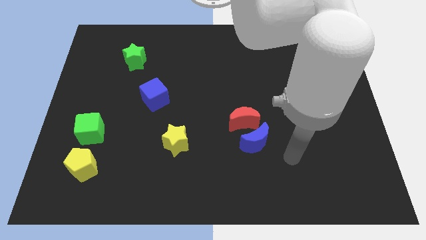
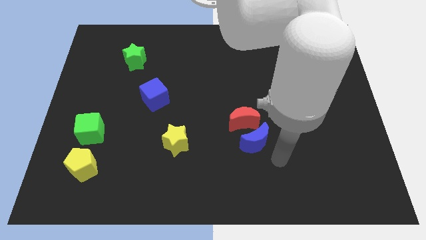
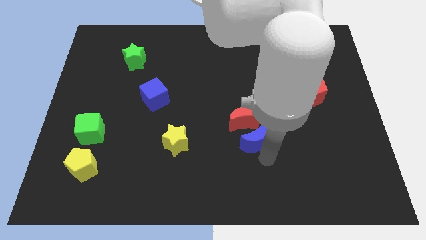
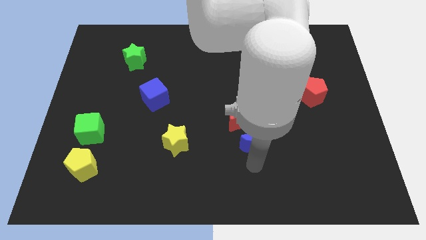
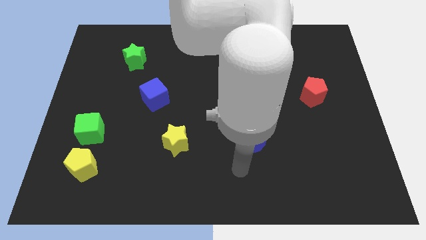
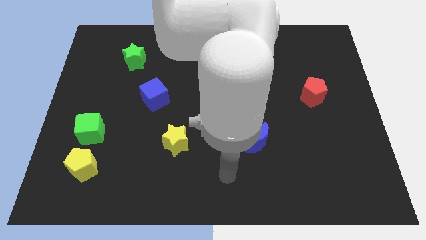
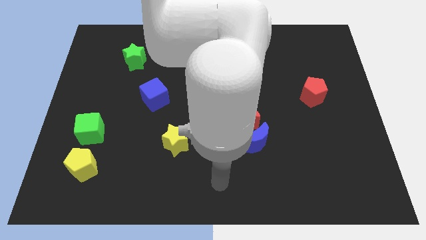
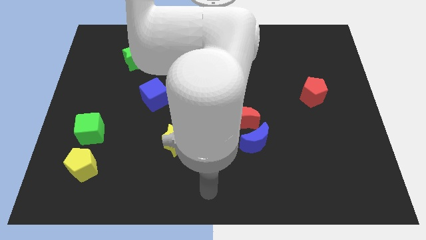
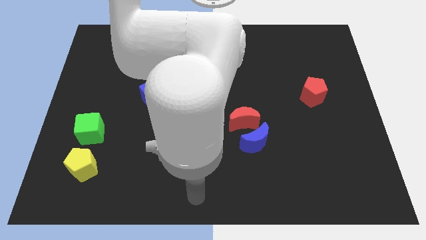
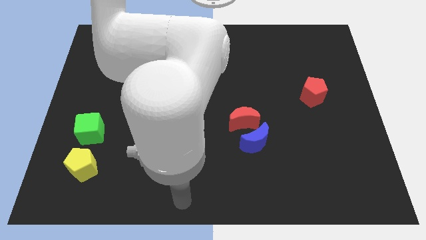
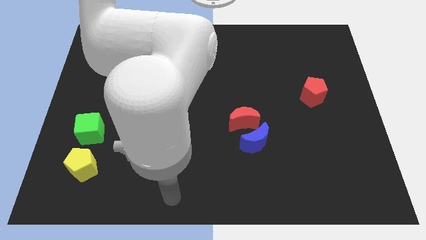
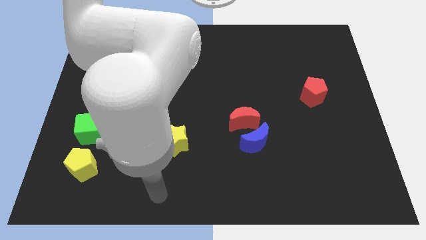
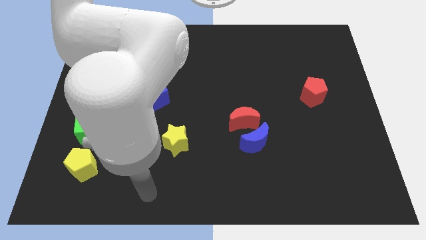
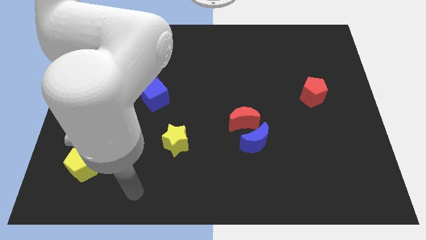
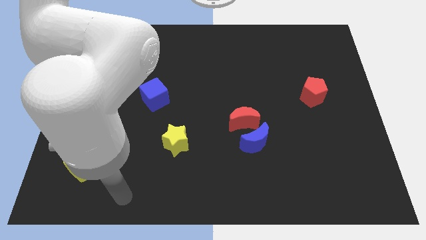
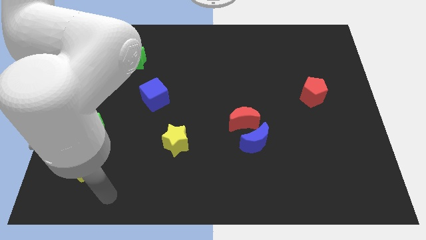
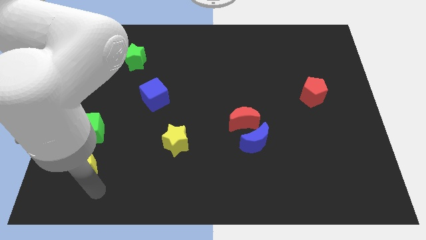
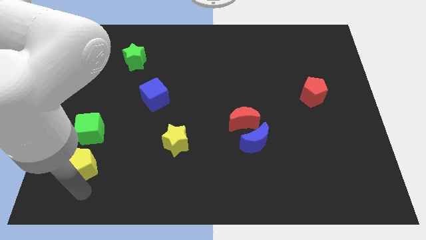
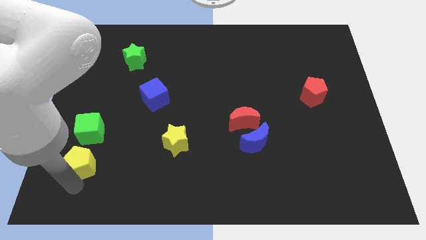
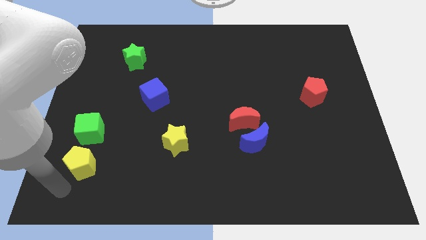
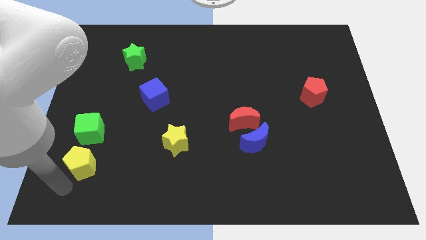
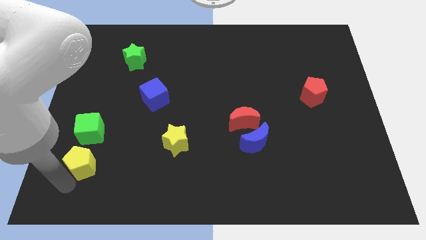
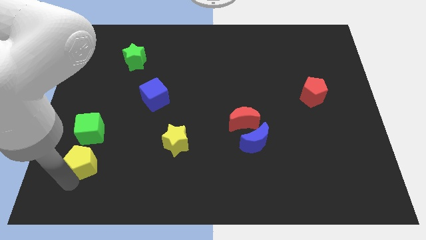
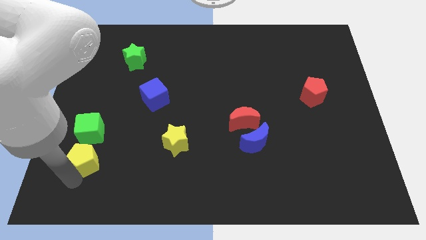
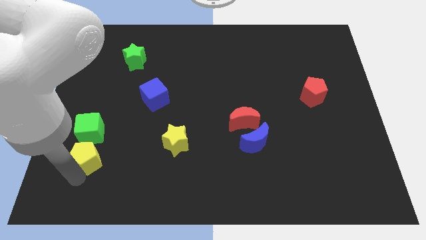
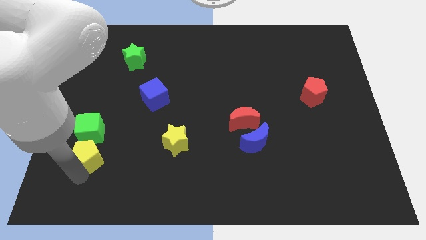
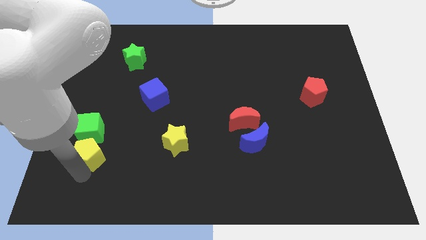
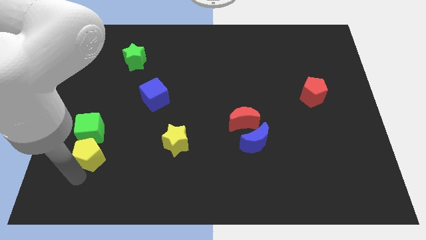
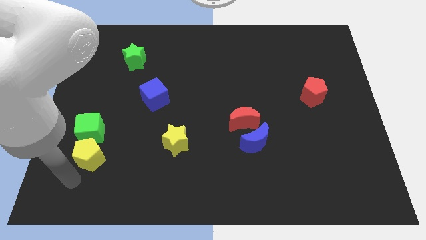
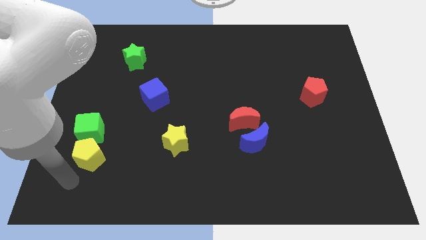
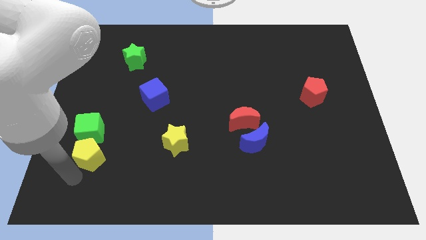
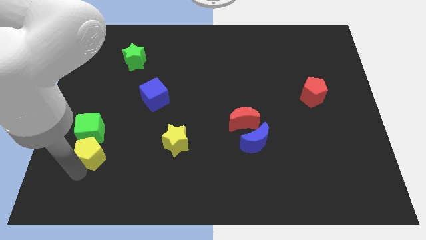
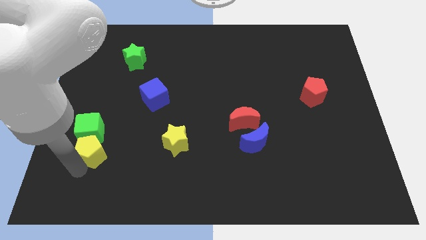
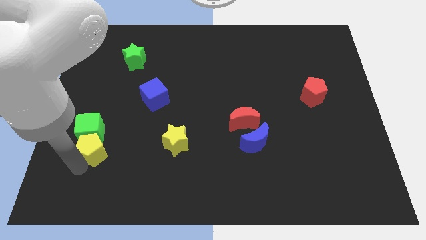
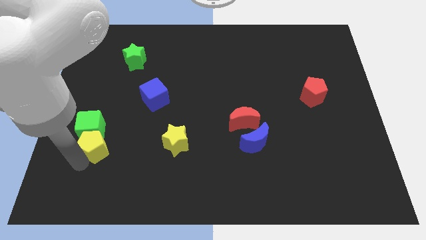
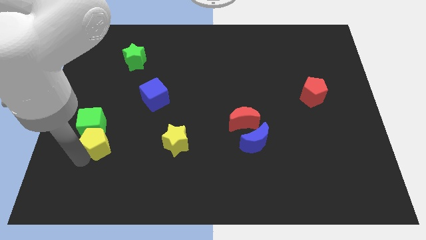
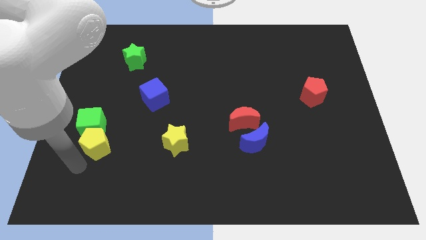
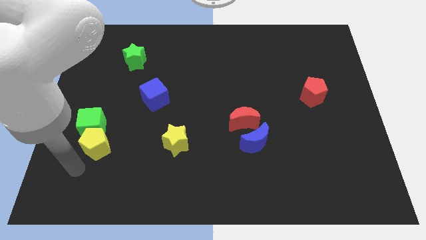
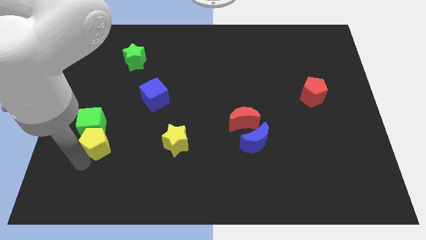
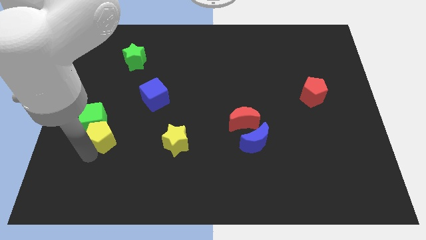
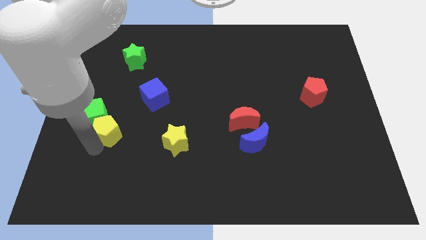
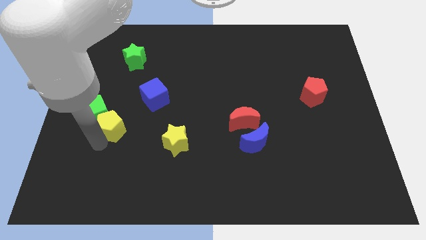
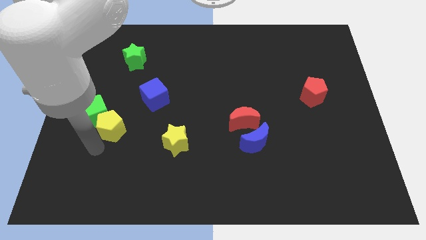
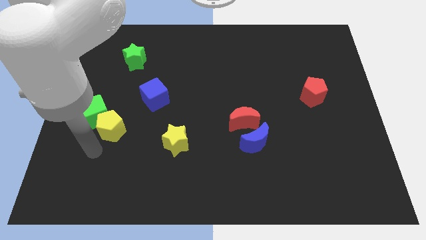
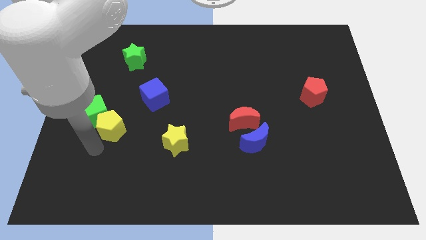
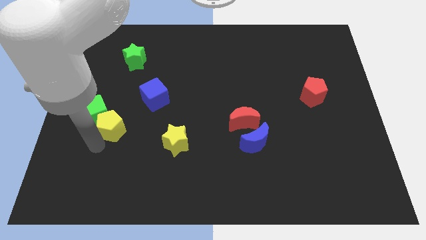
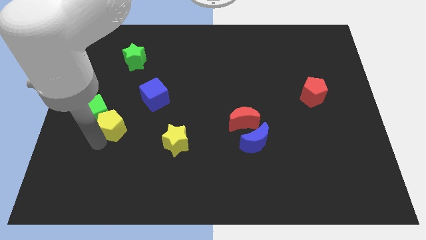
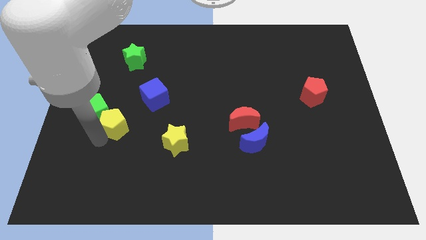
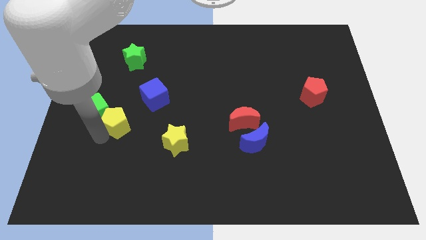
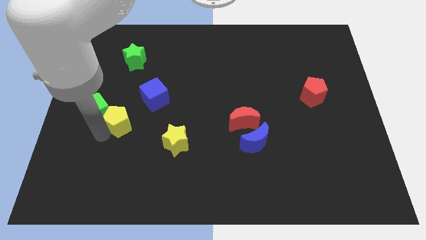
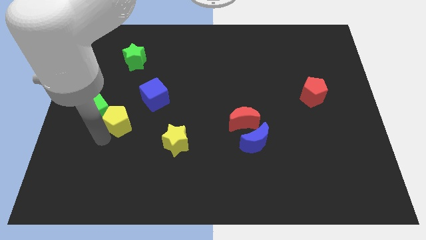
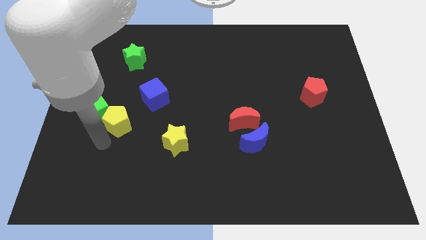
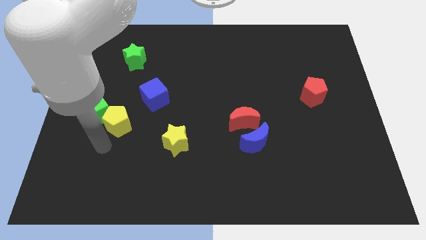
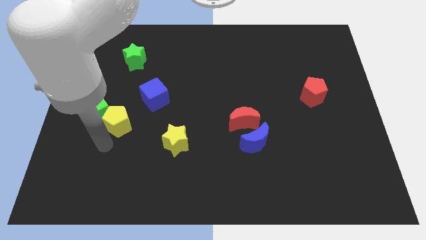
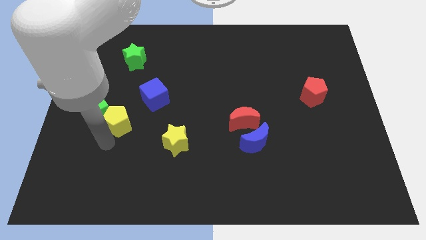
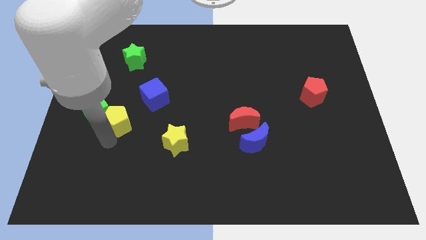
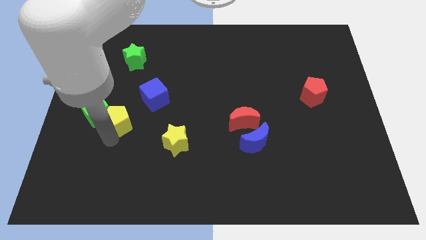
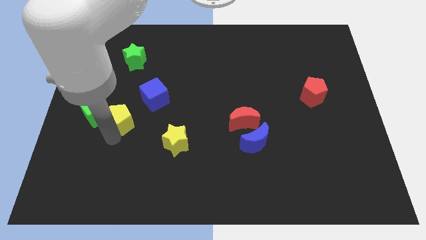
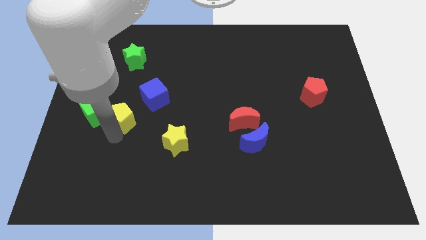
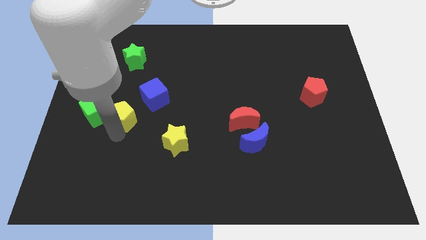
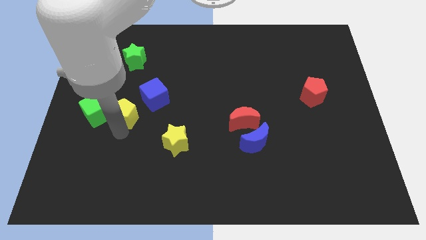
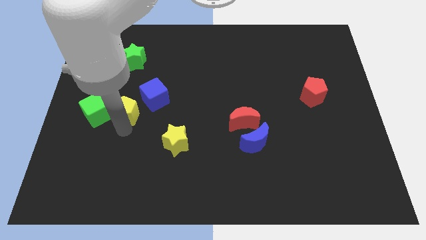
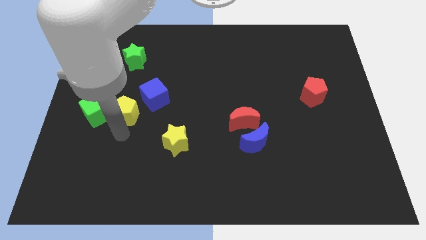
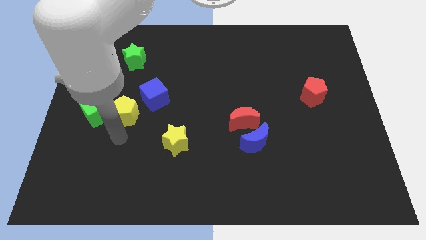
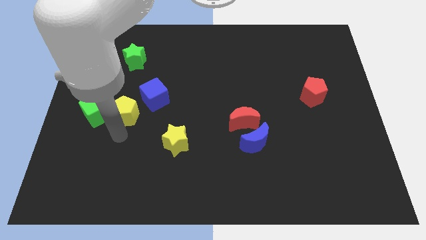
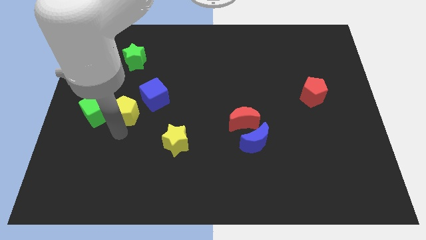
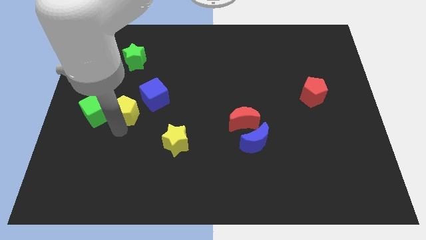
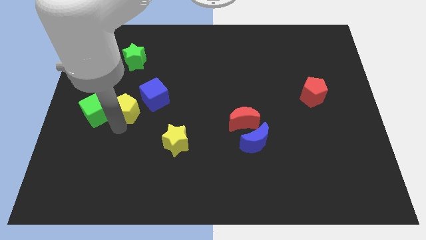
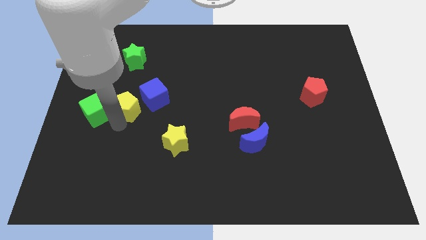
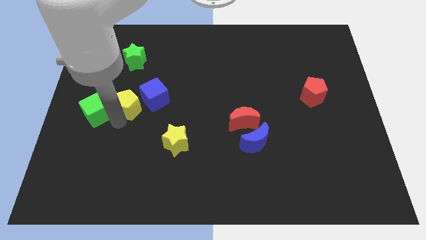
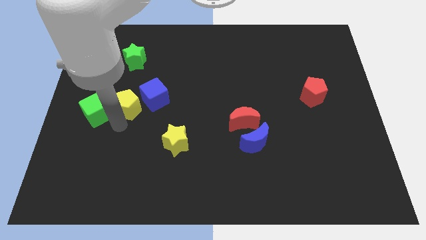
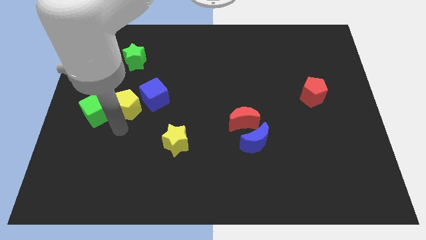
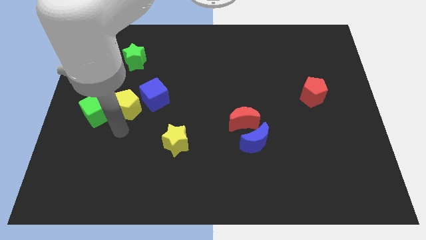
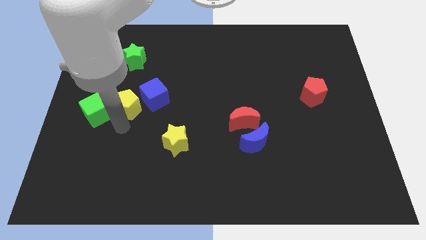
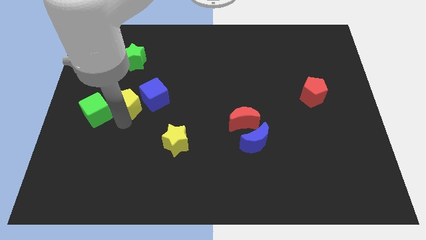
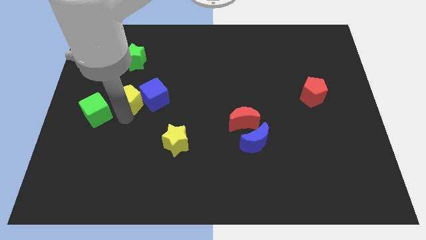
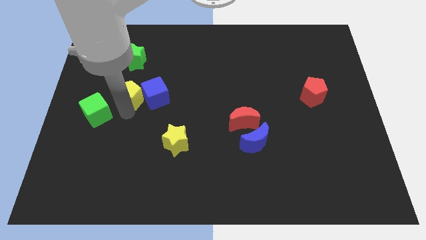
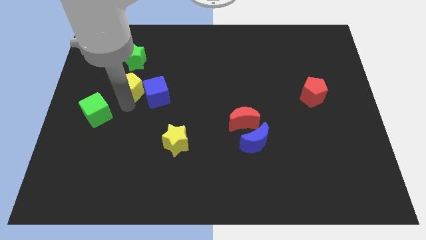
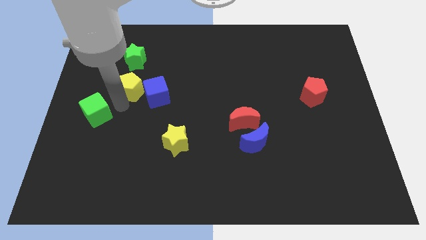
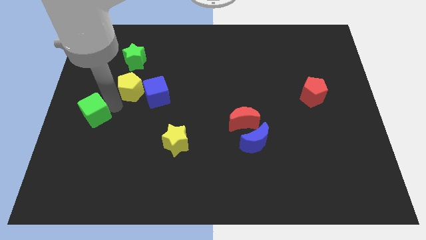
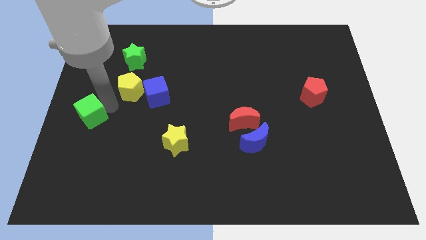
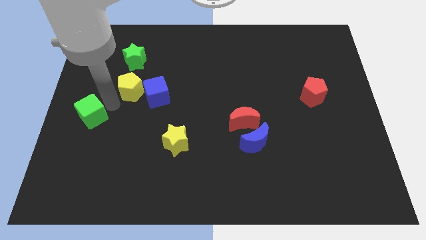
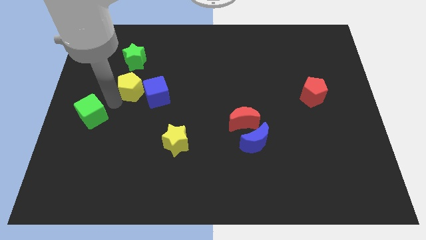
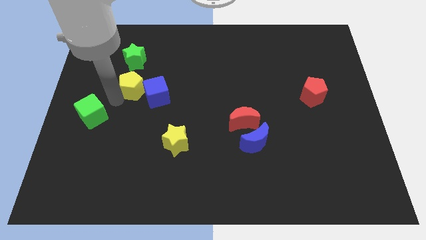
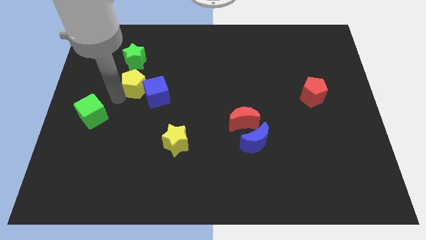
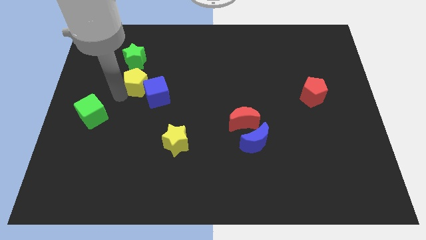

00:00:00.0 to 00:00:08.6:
slide the yellow pentagon to the bottom right side of the green star
